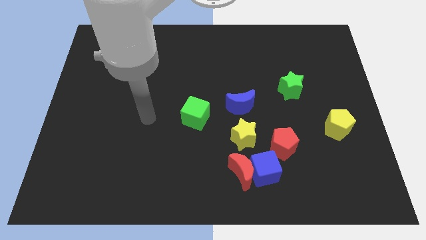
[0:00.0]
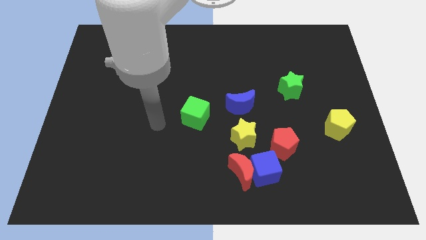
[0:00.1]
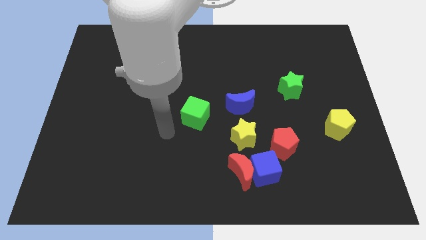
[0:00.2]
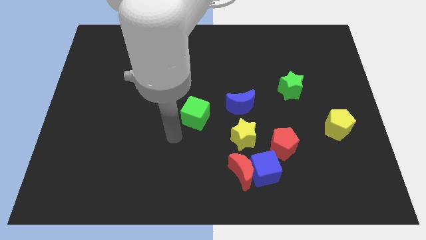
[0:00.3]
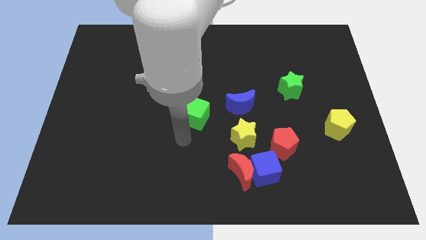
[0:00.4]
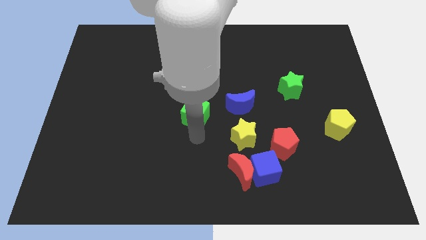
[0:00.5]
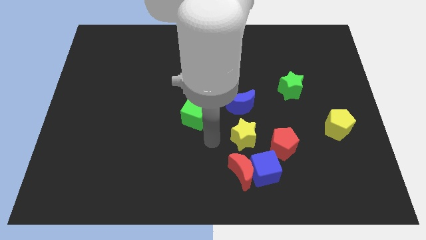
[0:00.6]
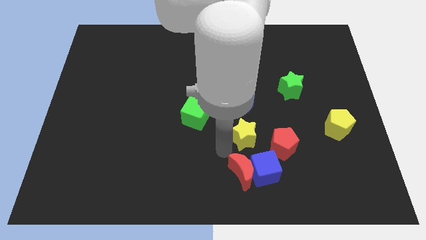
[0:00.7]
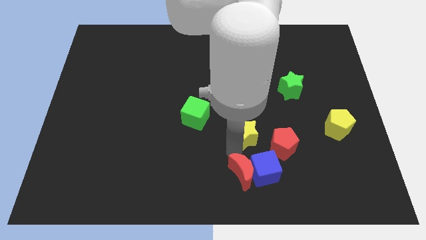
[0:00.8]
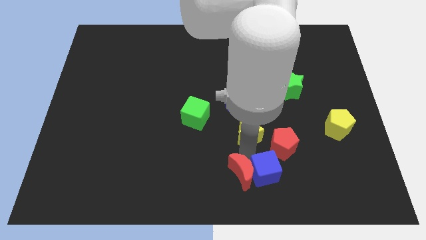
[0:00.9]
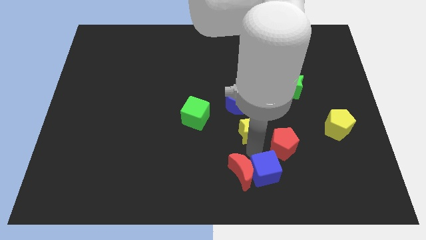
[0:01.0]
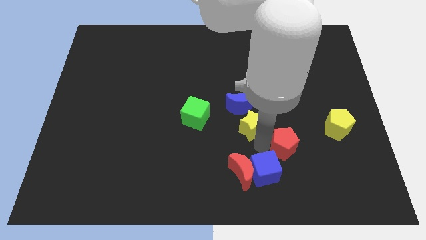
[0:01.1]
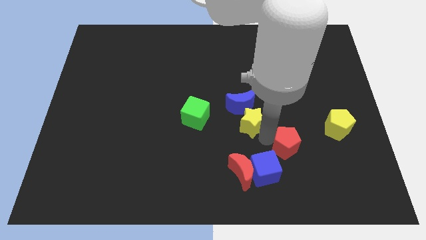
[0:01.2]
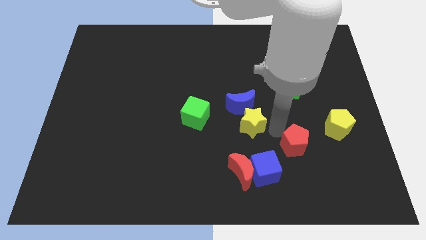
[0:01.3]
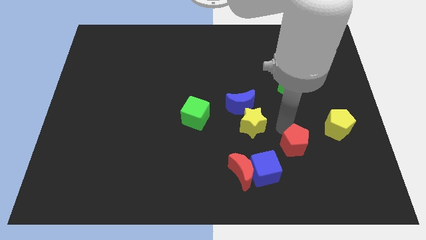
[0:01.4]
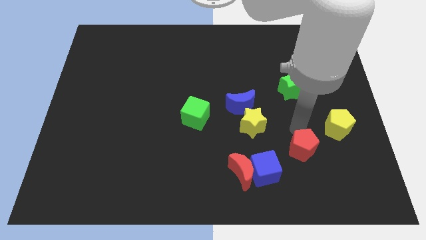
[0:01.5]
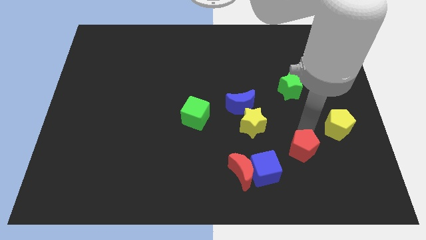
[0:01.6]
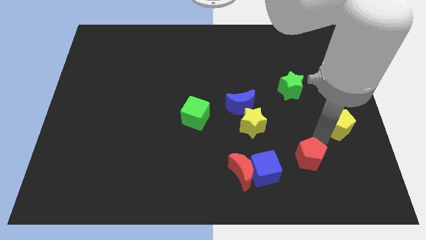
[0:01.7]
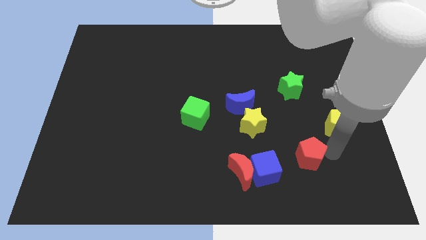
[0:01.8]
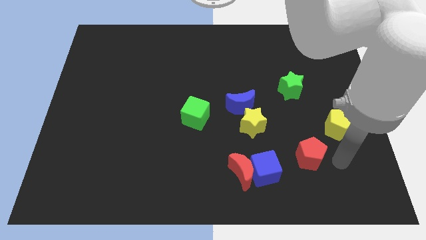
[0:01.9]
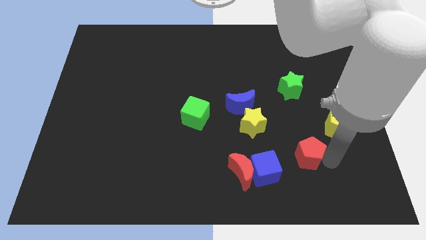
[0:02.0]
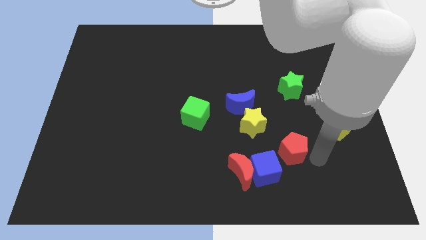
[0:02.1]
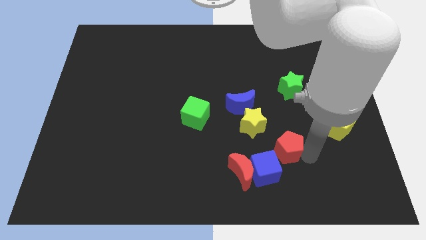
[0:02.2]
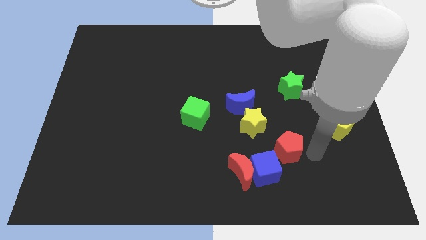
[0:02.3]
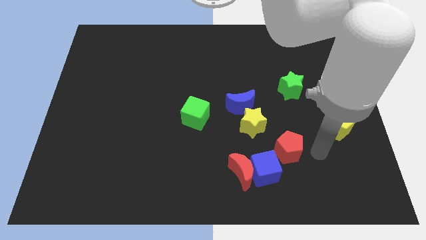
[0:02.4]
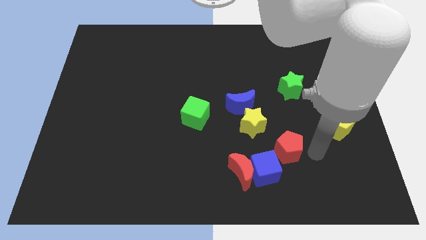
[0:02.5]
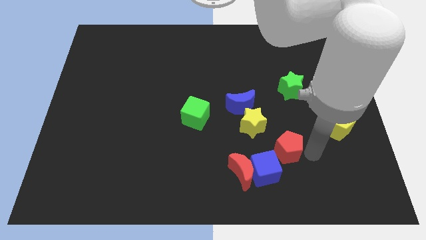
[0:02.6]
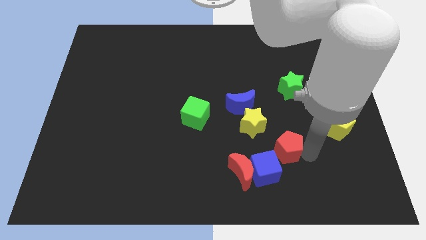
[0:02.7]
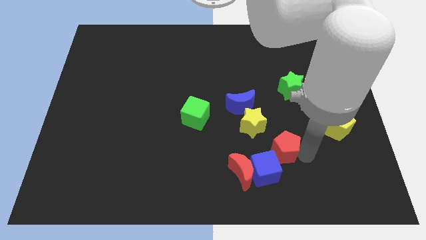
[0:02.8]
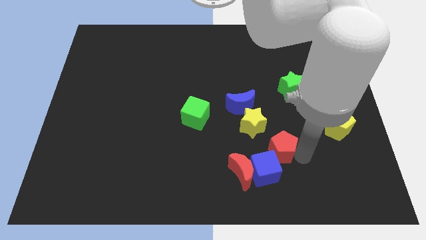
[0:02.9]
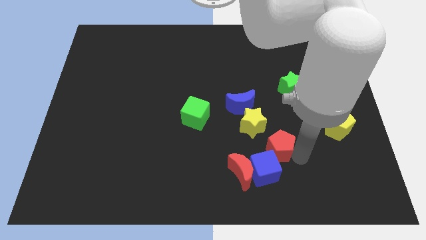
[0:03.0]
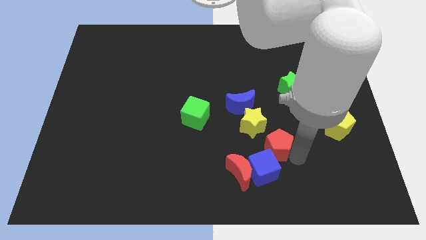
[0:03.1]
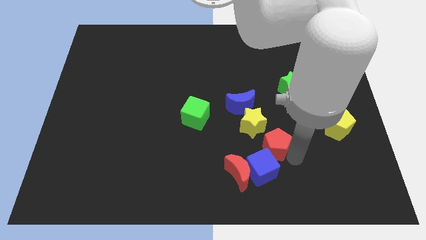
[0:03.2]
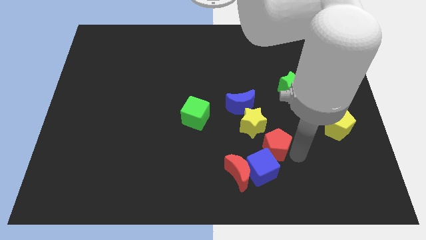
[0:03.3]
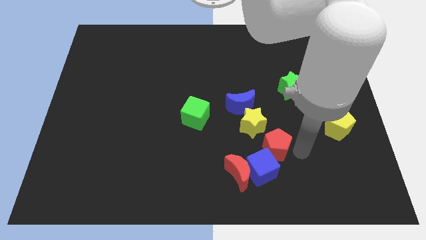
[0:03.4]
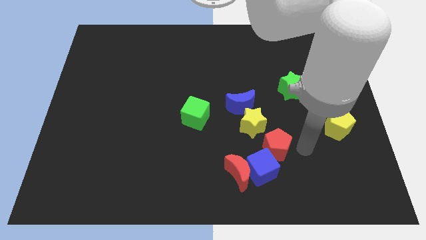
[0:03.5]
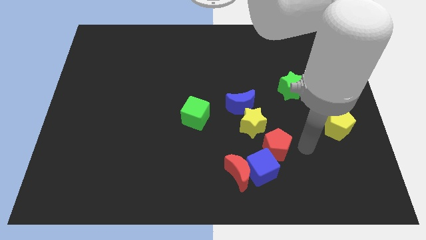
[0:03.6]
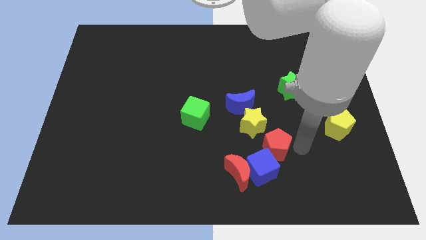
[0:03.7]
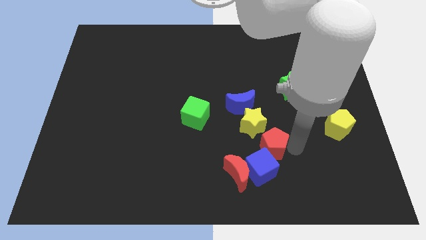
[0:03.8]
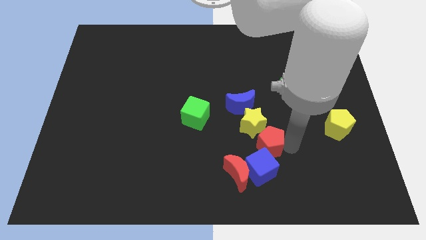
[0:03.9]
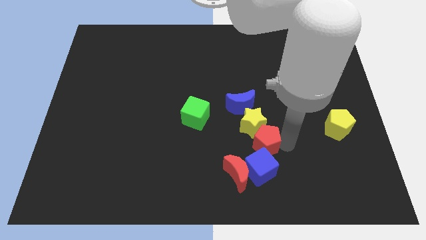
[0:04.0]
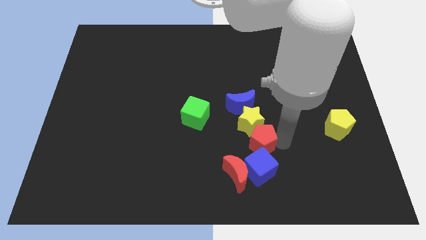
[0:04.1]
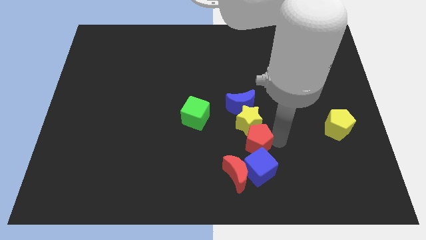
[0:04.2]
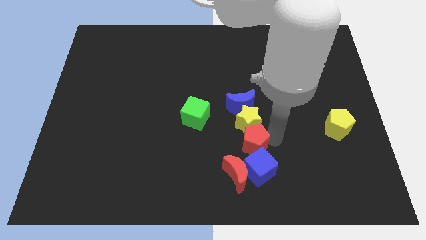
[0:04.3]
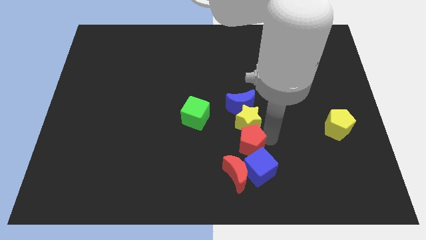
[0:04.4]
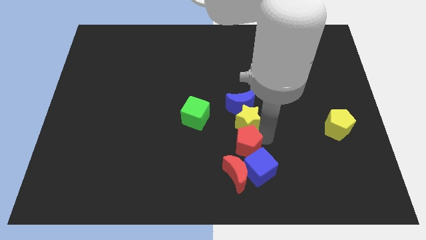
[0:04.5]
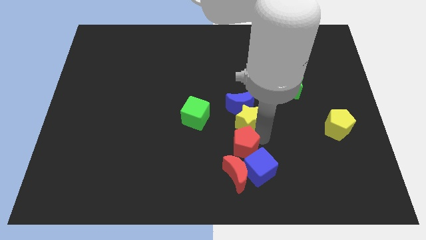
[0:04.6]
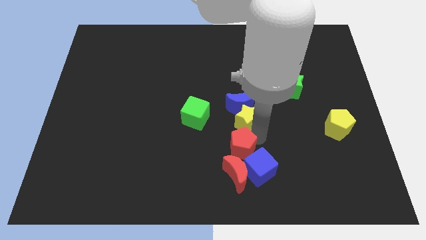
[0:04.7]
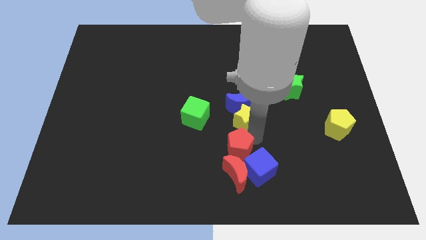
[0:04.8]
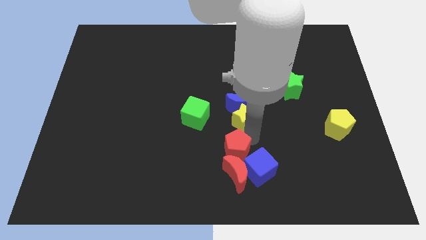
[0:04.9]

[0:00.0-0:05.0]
push the red pentagon towards the red moon

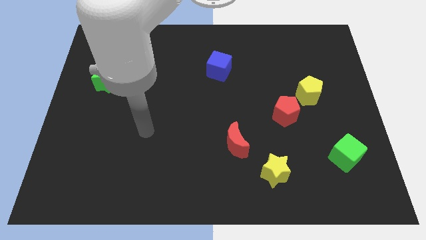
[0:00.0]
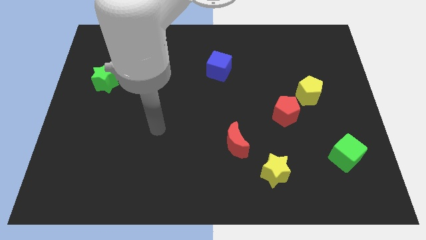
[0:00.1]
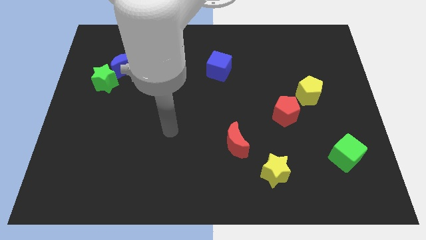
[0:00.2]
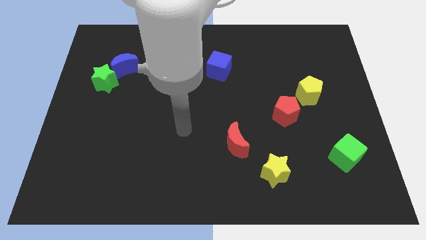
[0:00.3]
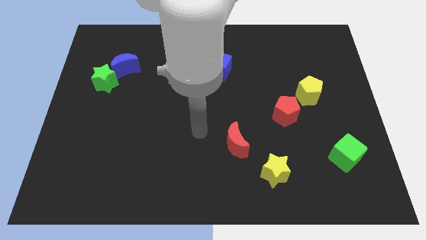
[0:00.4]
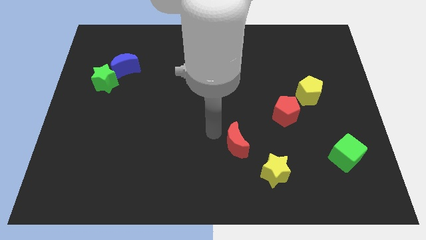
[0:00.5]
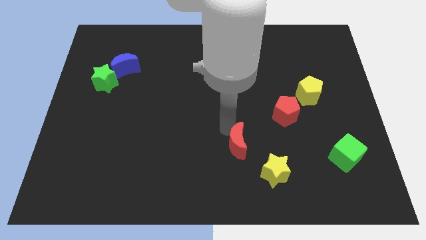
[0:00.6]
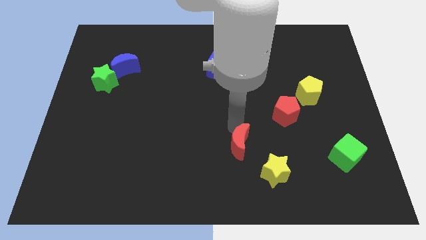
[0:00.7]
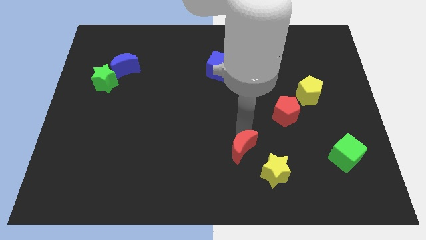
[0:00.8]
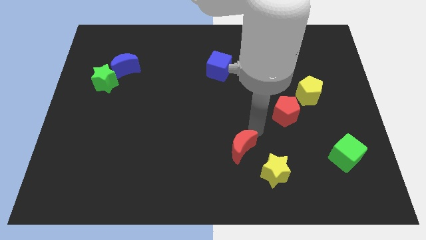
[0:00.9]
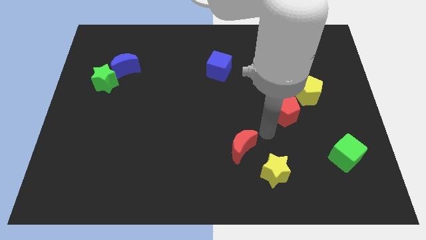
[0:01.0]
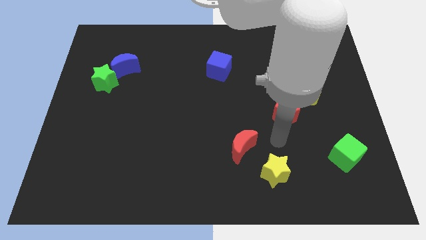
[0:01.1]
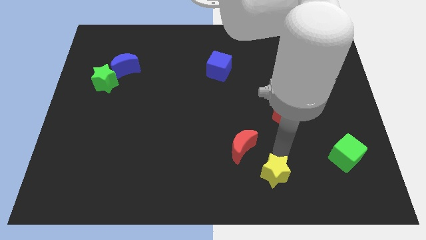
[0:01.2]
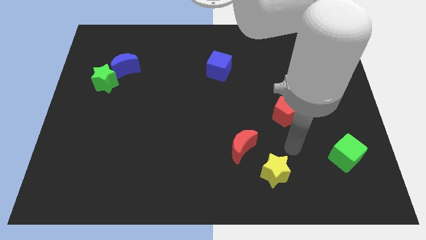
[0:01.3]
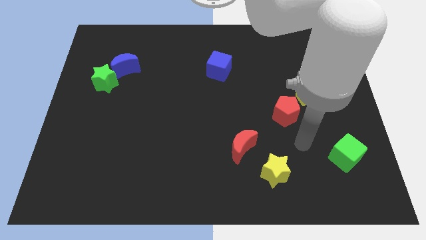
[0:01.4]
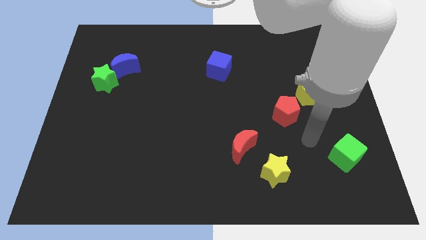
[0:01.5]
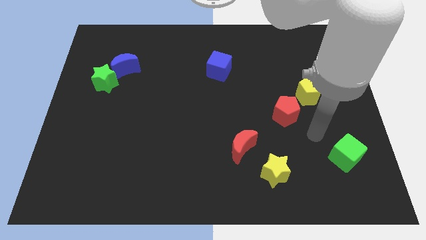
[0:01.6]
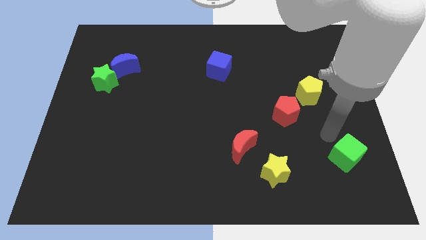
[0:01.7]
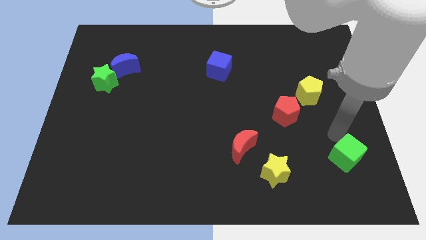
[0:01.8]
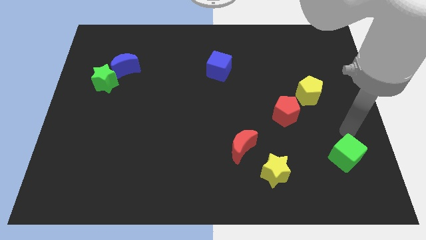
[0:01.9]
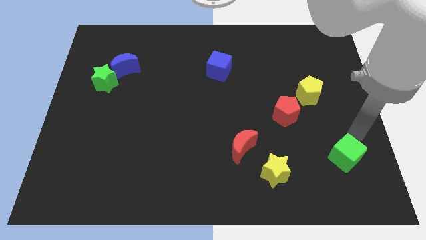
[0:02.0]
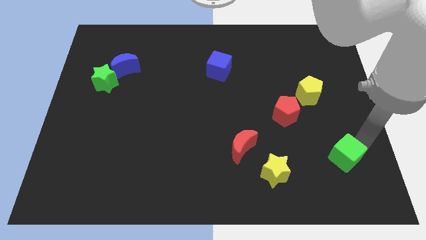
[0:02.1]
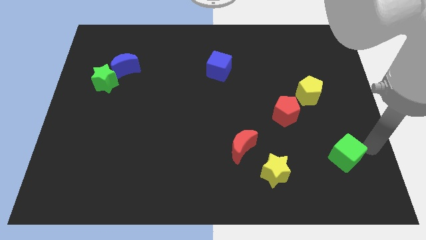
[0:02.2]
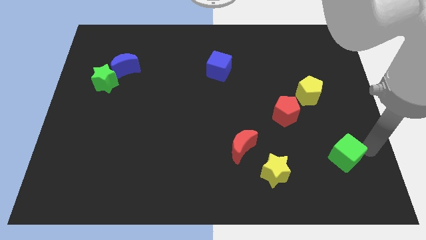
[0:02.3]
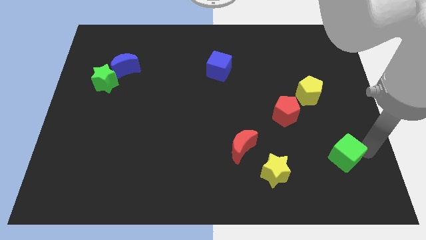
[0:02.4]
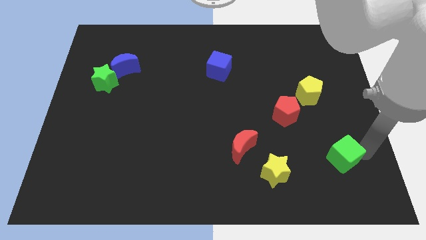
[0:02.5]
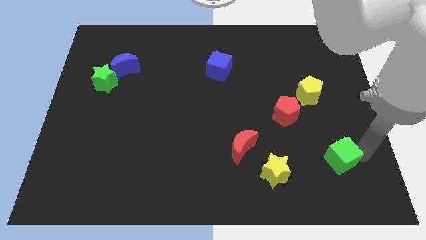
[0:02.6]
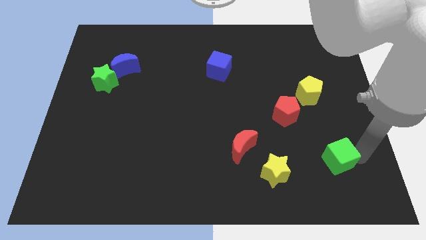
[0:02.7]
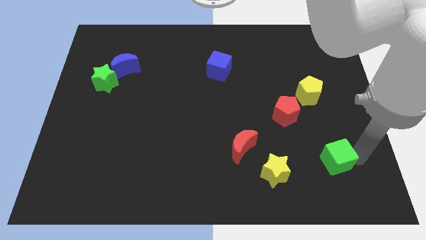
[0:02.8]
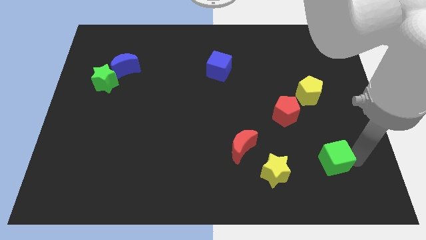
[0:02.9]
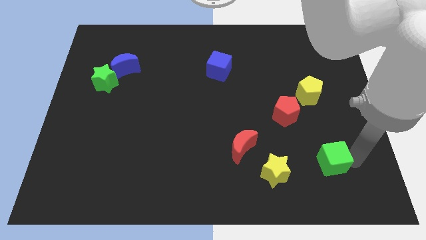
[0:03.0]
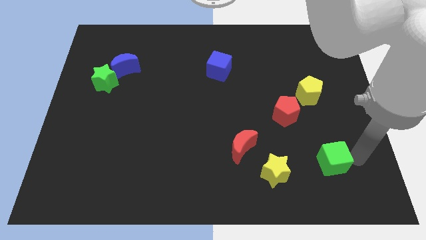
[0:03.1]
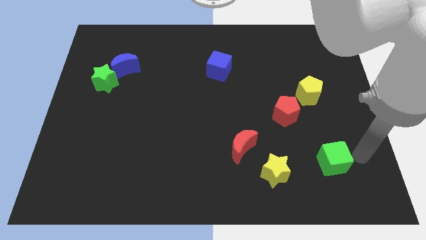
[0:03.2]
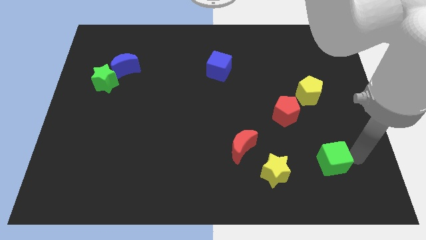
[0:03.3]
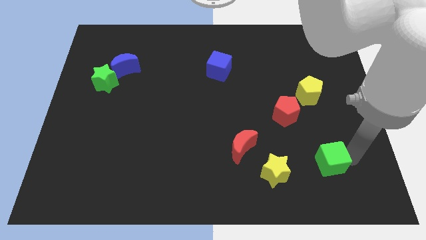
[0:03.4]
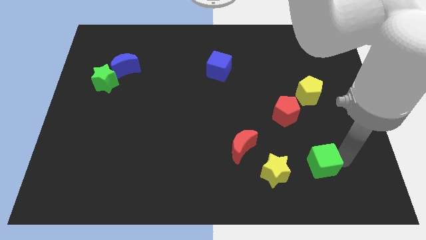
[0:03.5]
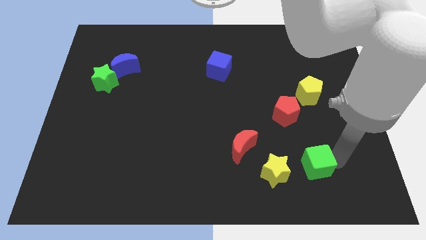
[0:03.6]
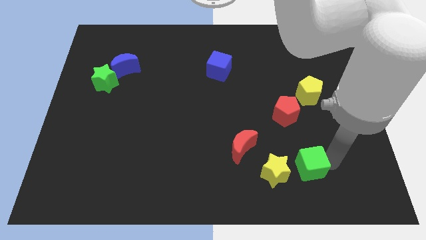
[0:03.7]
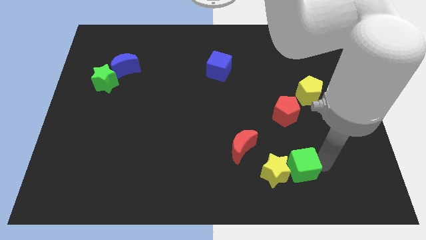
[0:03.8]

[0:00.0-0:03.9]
put the green cube next to the yellow star

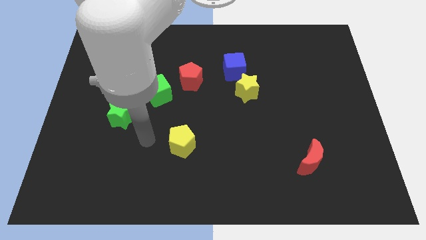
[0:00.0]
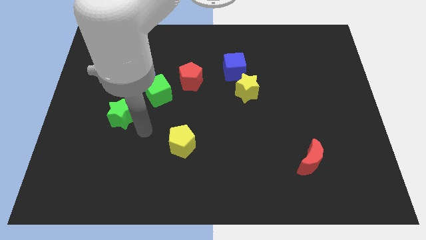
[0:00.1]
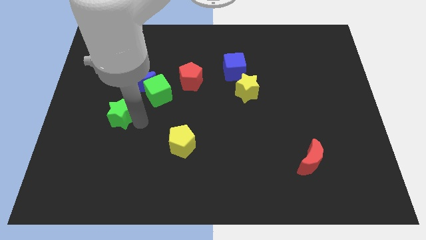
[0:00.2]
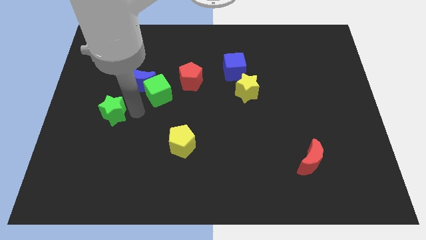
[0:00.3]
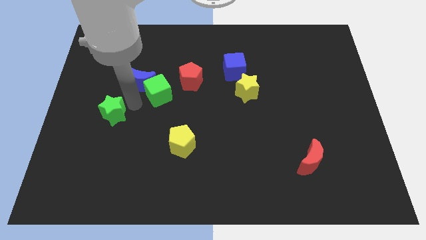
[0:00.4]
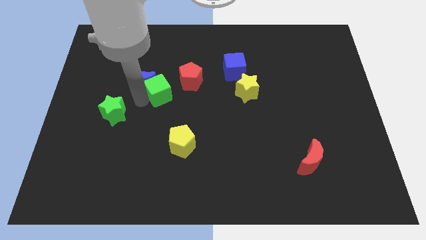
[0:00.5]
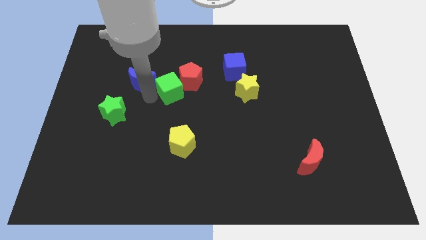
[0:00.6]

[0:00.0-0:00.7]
put the green cube to the red pentagon
